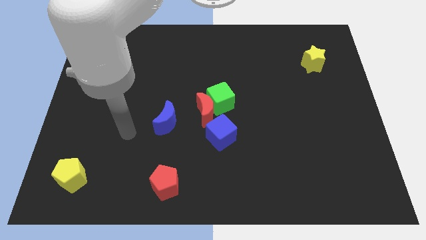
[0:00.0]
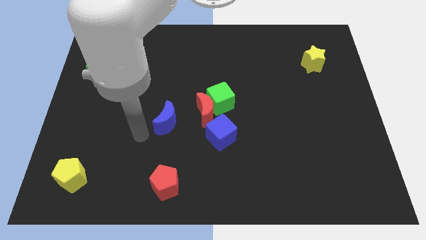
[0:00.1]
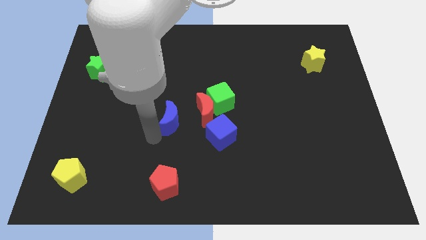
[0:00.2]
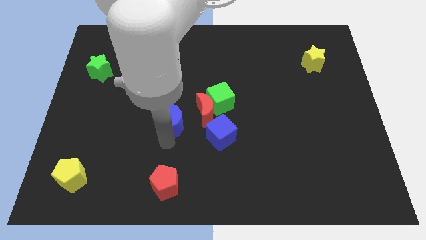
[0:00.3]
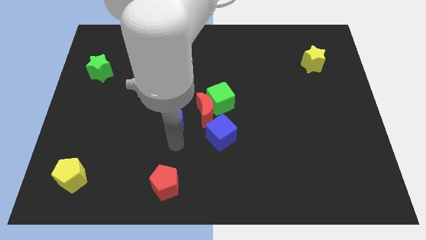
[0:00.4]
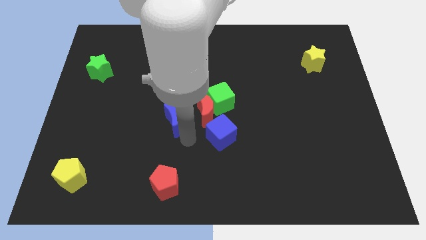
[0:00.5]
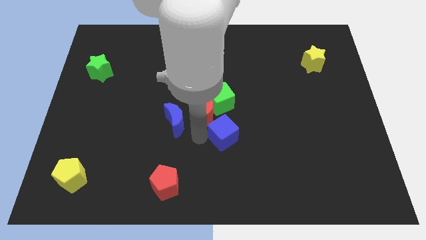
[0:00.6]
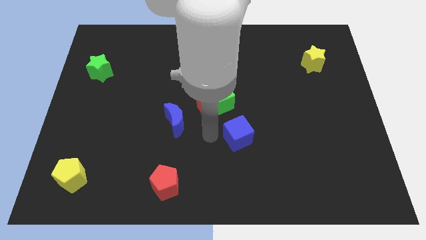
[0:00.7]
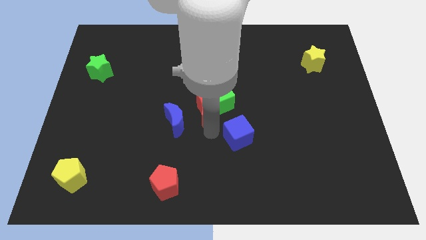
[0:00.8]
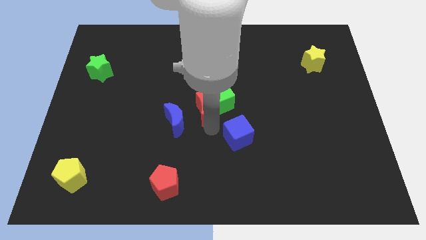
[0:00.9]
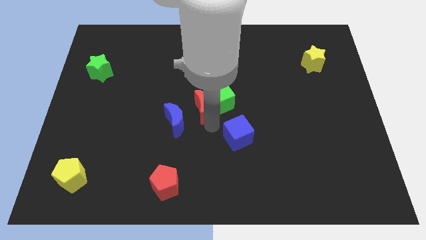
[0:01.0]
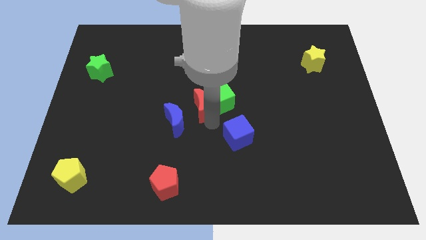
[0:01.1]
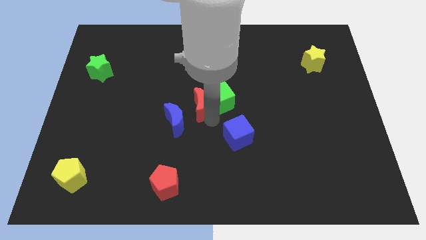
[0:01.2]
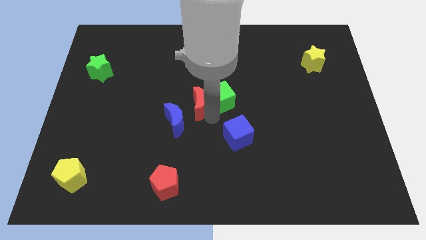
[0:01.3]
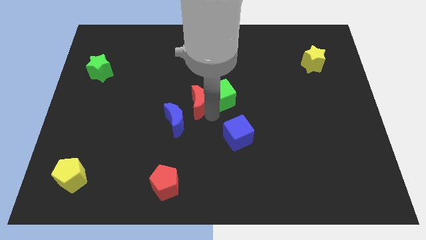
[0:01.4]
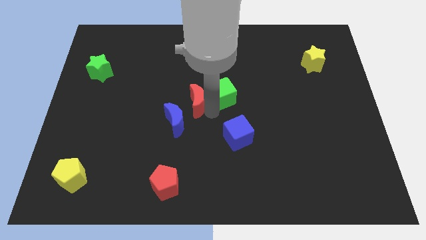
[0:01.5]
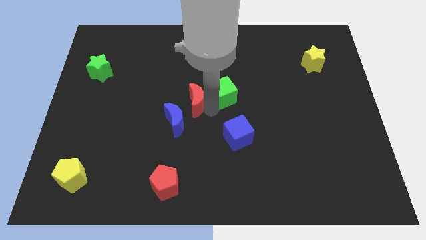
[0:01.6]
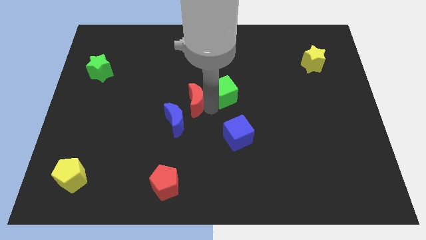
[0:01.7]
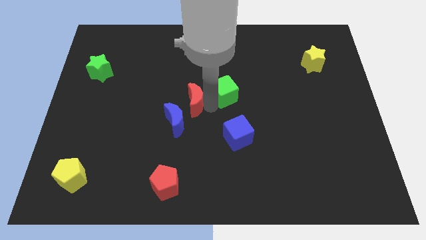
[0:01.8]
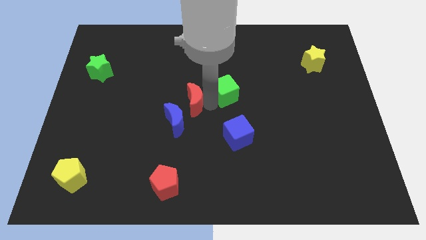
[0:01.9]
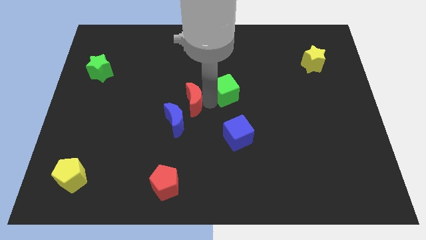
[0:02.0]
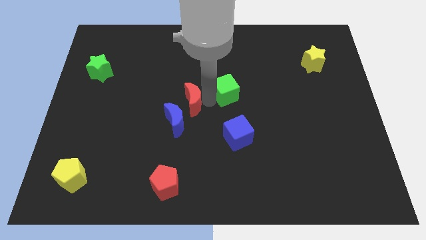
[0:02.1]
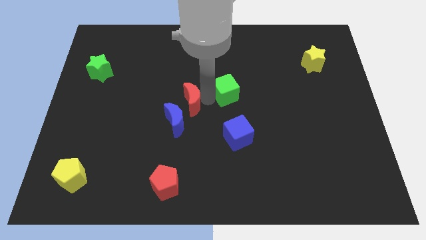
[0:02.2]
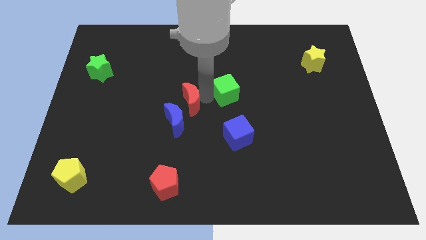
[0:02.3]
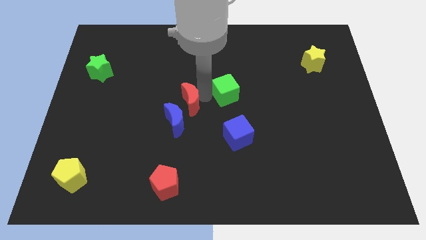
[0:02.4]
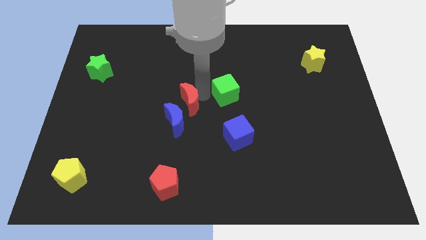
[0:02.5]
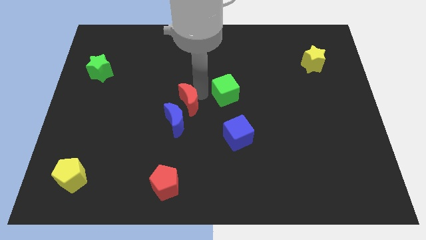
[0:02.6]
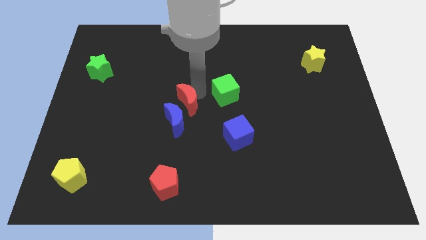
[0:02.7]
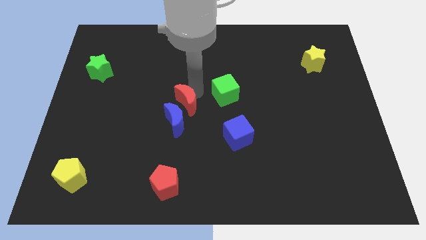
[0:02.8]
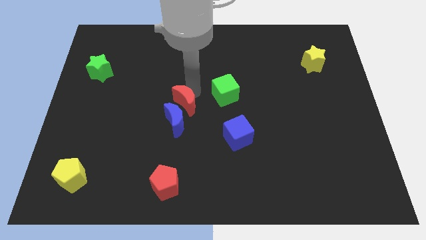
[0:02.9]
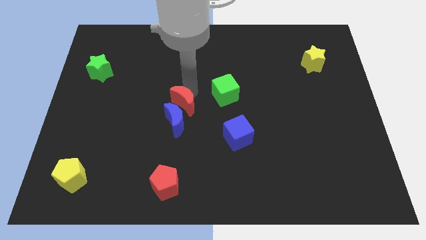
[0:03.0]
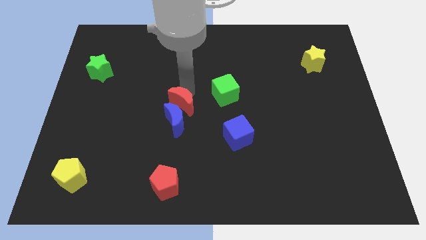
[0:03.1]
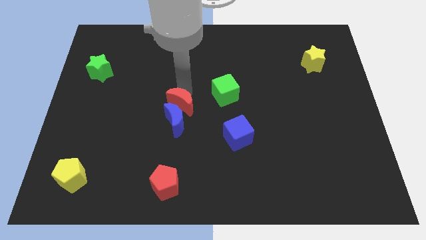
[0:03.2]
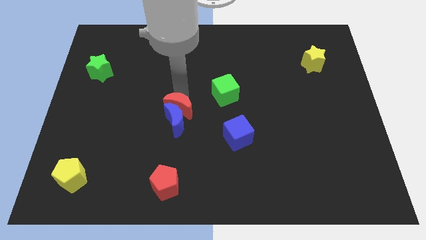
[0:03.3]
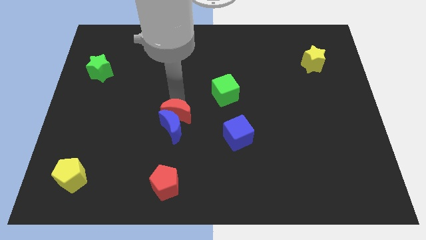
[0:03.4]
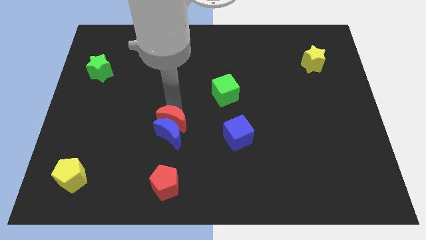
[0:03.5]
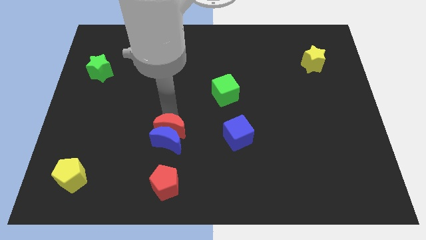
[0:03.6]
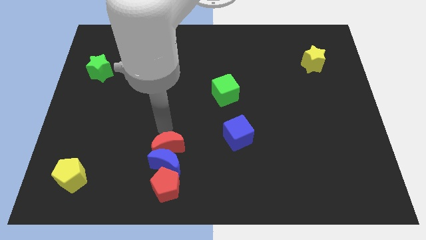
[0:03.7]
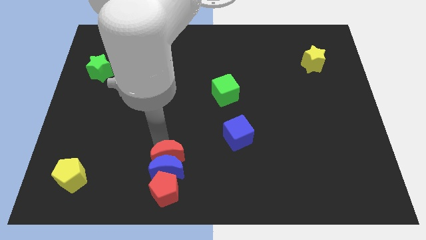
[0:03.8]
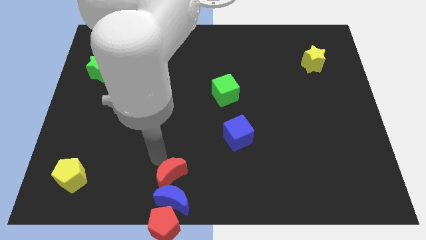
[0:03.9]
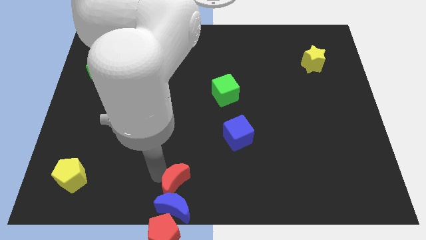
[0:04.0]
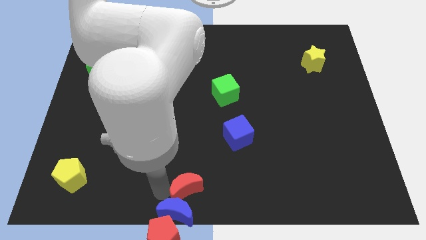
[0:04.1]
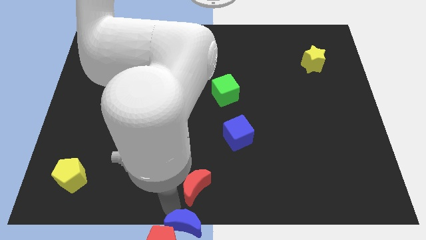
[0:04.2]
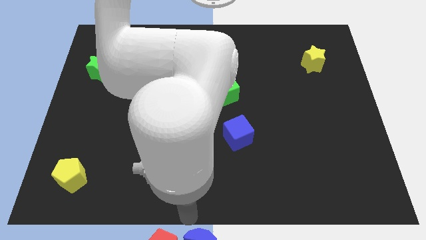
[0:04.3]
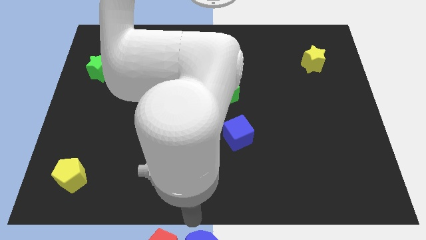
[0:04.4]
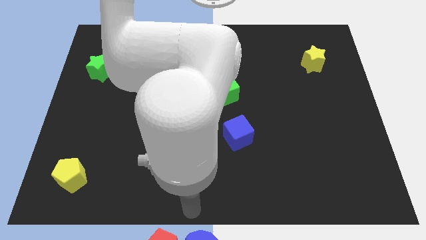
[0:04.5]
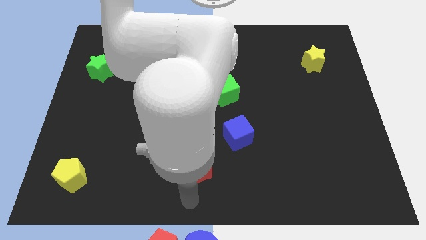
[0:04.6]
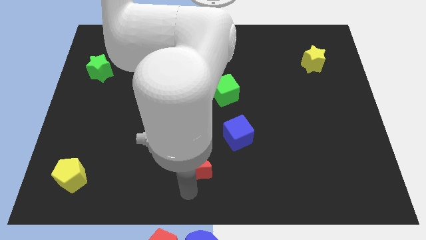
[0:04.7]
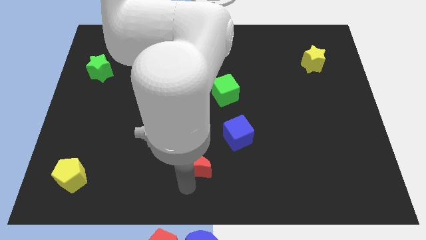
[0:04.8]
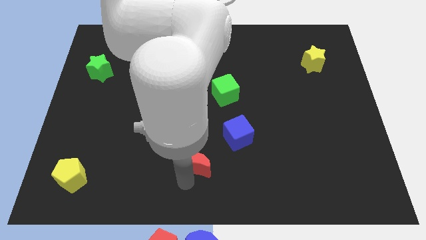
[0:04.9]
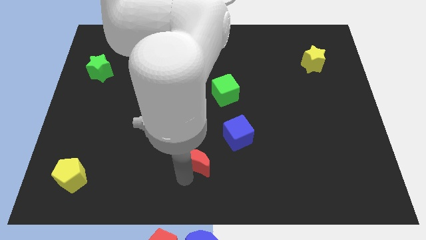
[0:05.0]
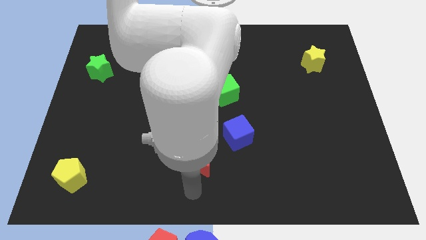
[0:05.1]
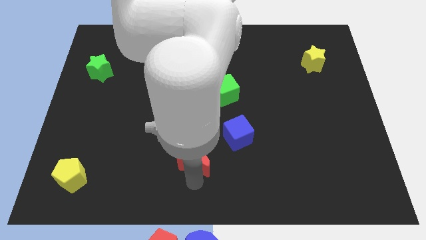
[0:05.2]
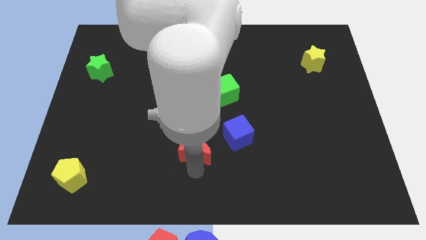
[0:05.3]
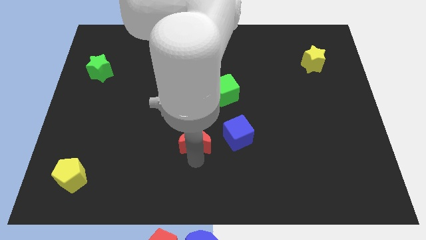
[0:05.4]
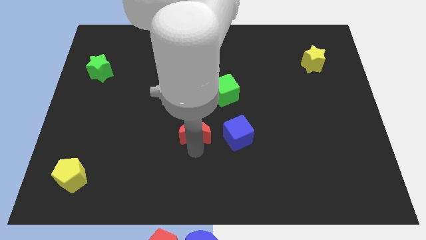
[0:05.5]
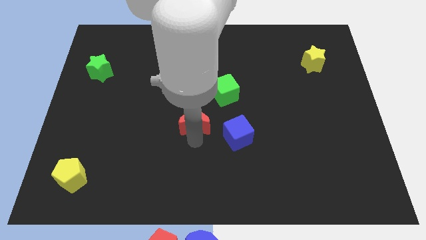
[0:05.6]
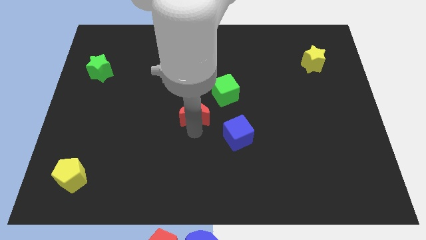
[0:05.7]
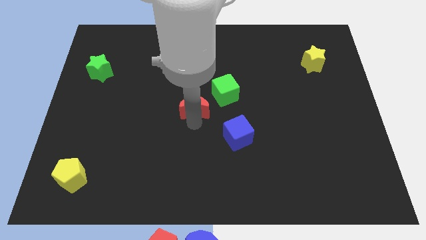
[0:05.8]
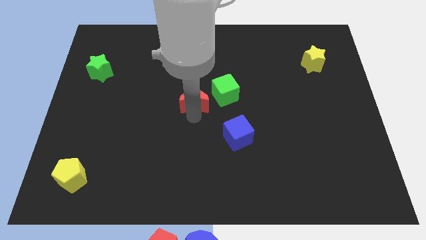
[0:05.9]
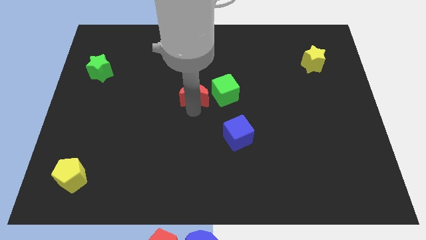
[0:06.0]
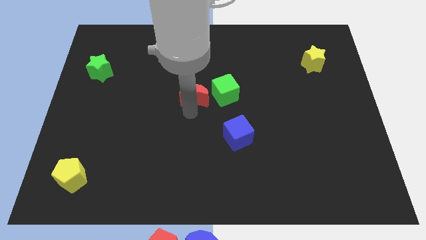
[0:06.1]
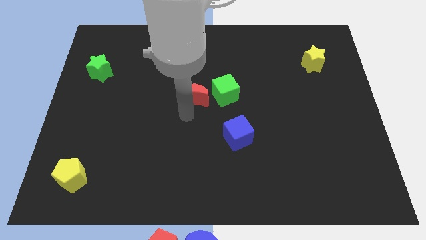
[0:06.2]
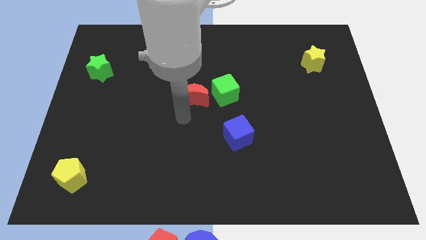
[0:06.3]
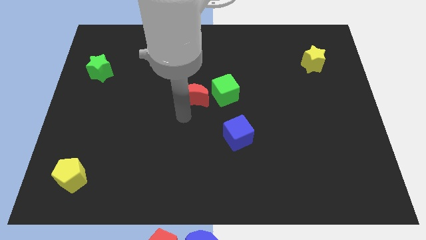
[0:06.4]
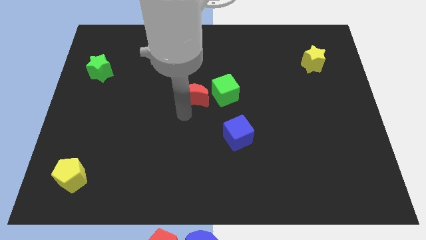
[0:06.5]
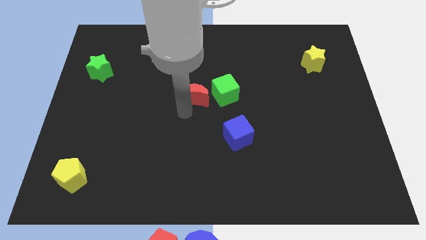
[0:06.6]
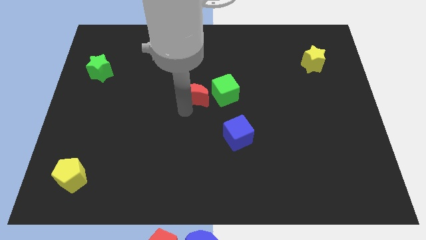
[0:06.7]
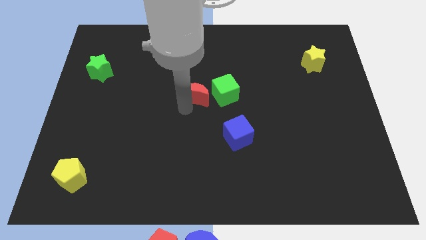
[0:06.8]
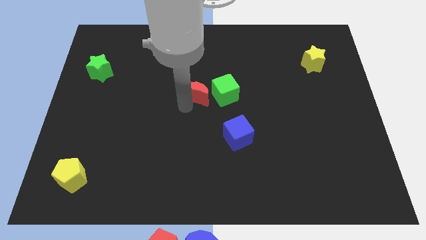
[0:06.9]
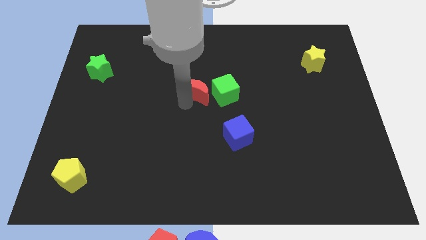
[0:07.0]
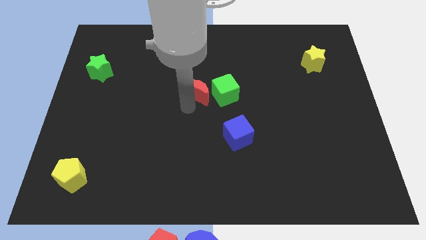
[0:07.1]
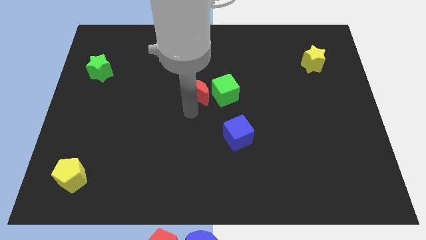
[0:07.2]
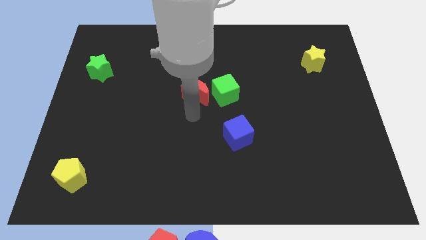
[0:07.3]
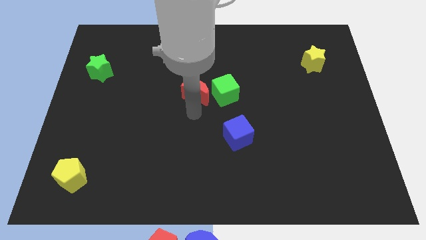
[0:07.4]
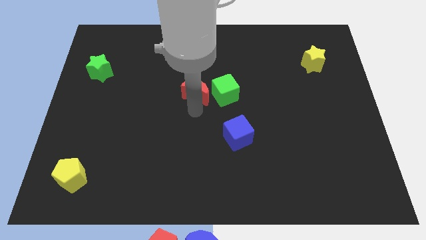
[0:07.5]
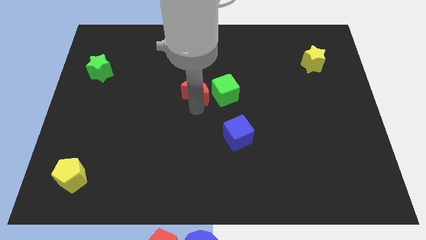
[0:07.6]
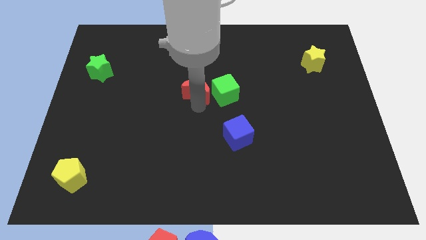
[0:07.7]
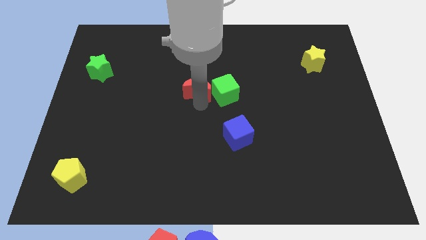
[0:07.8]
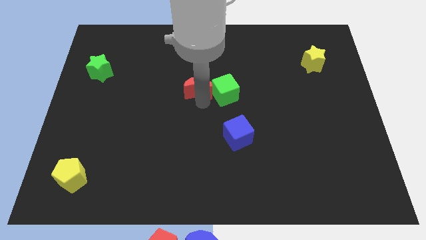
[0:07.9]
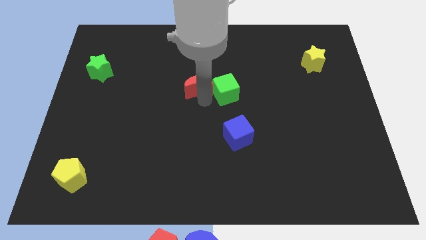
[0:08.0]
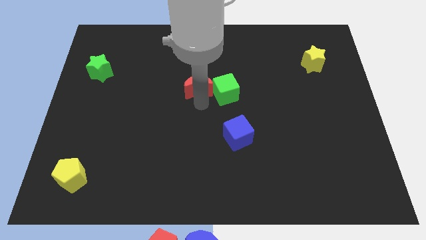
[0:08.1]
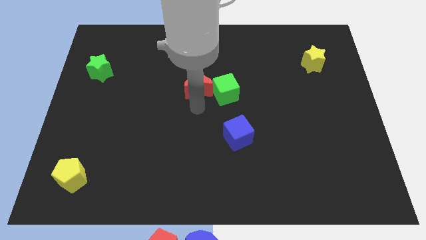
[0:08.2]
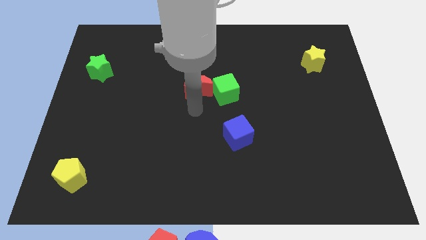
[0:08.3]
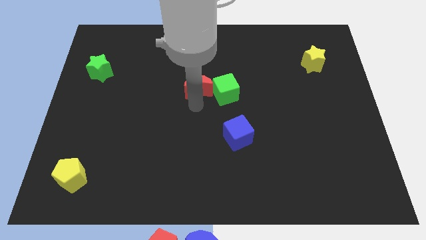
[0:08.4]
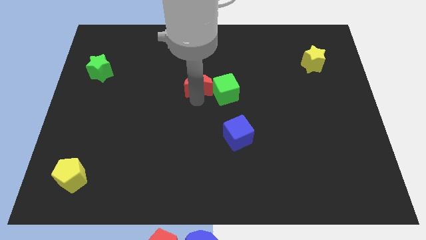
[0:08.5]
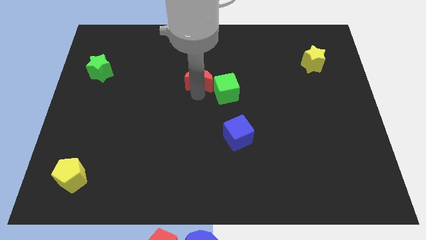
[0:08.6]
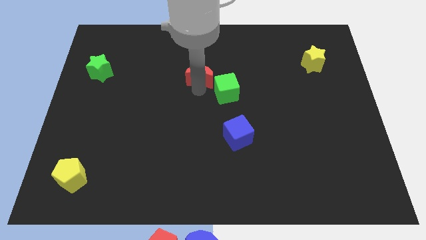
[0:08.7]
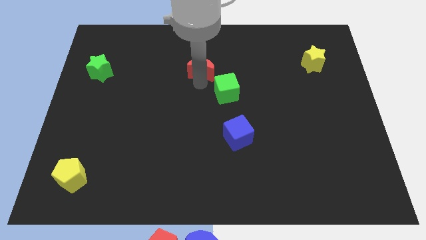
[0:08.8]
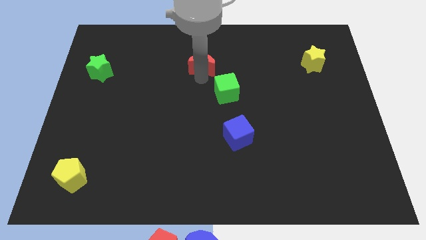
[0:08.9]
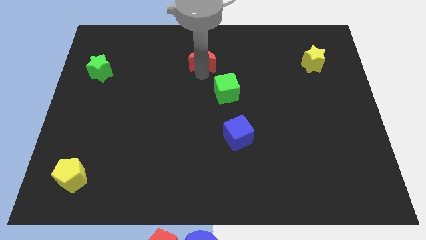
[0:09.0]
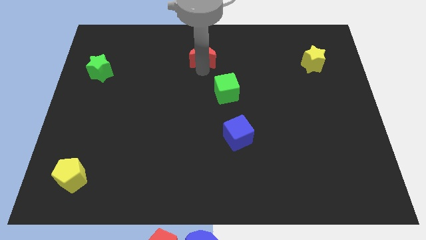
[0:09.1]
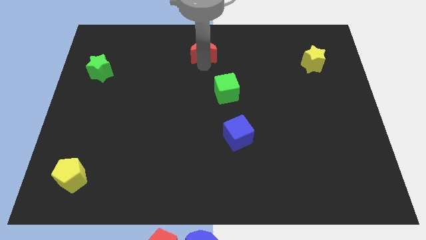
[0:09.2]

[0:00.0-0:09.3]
move the red moon to the towards your base
